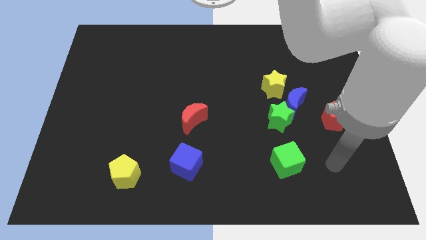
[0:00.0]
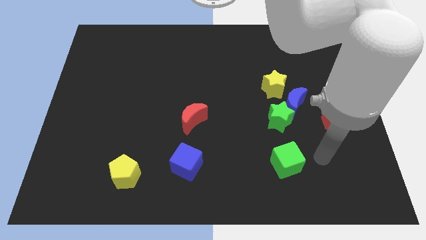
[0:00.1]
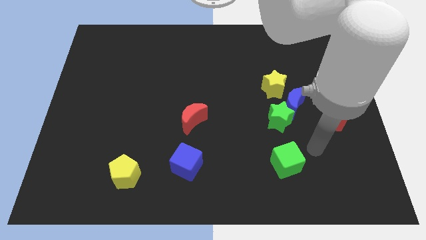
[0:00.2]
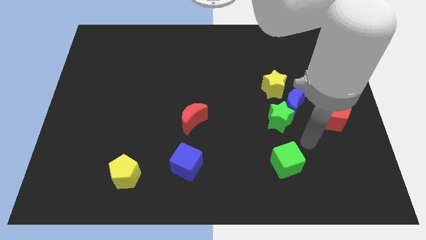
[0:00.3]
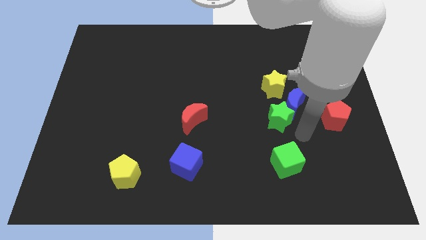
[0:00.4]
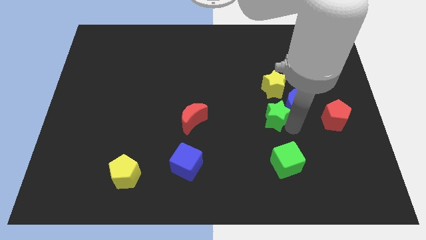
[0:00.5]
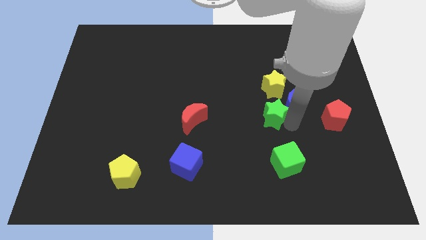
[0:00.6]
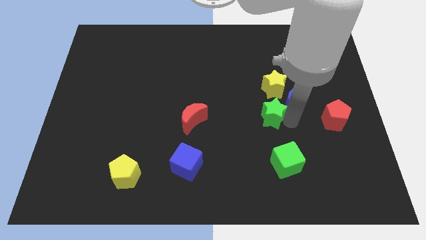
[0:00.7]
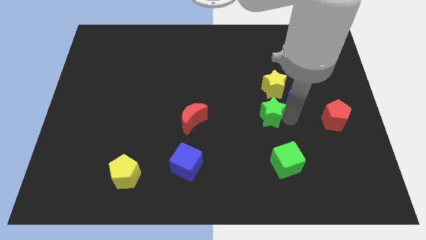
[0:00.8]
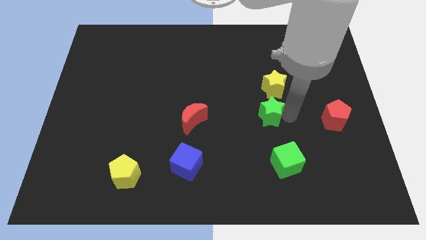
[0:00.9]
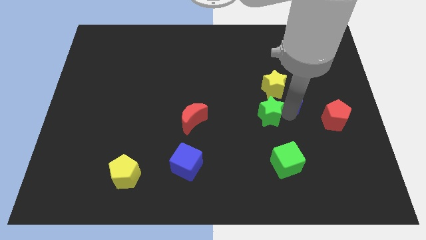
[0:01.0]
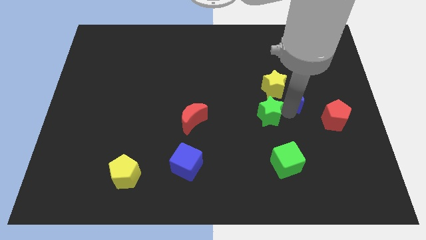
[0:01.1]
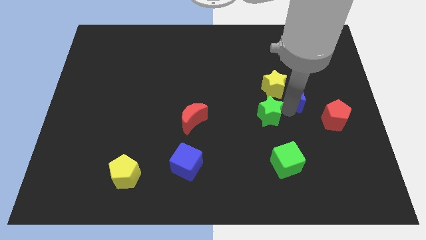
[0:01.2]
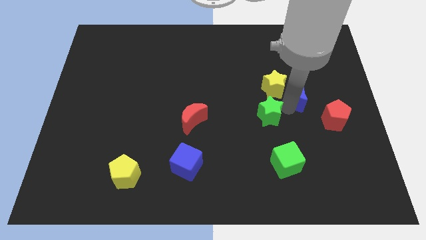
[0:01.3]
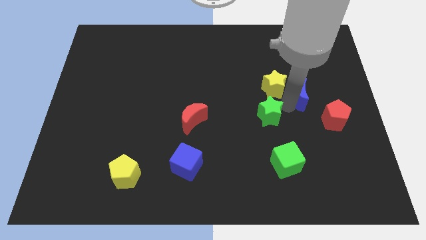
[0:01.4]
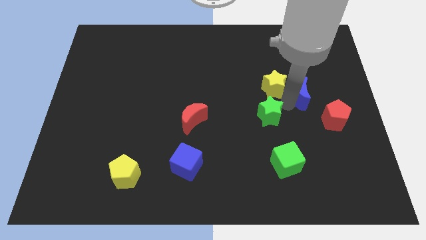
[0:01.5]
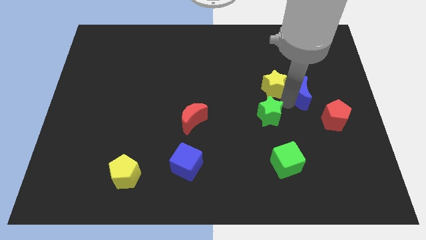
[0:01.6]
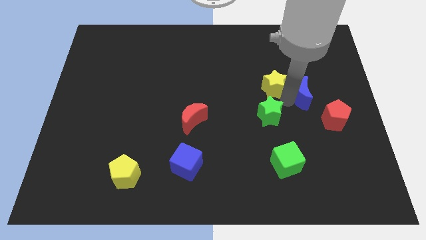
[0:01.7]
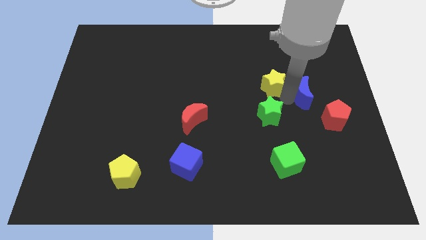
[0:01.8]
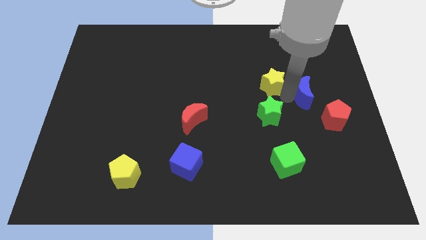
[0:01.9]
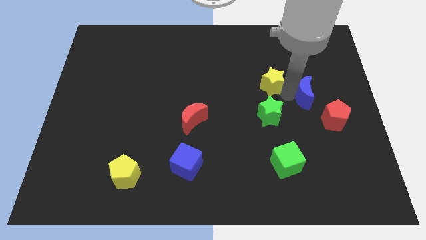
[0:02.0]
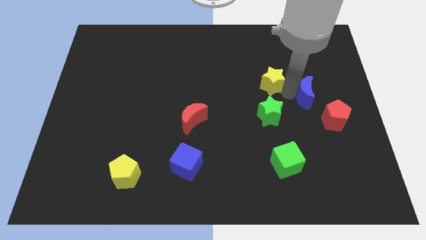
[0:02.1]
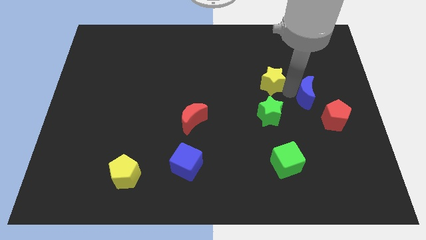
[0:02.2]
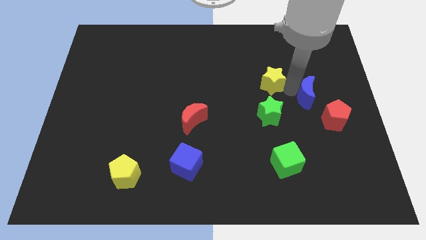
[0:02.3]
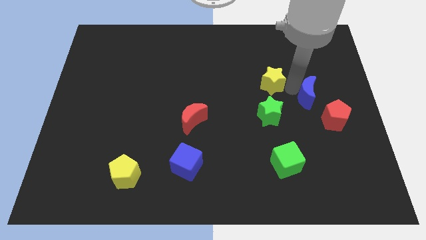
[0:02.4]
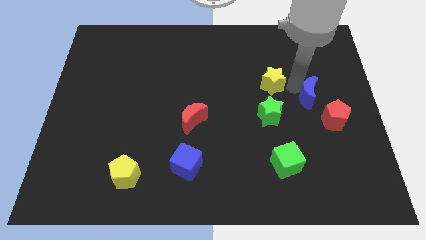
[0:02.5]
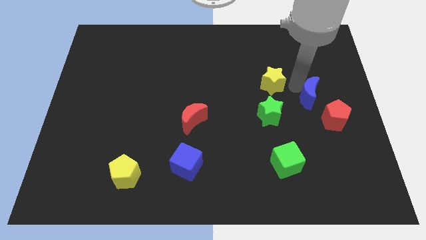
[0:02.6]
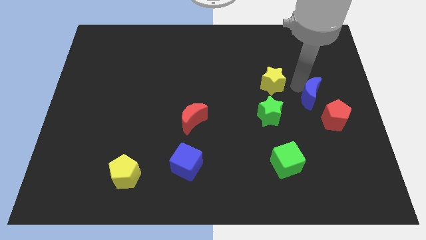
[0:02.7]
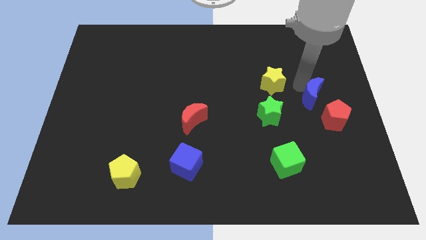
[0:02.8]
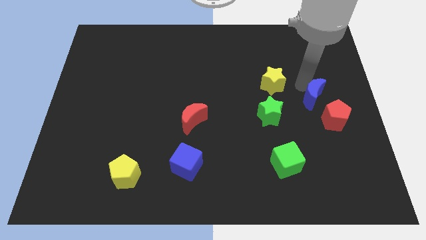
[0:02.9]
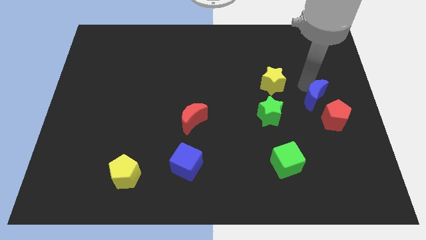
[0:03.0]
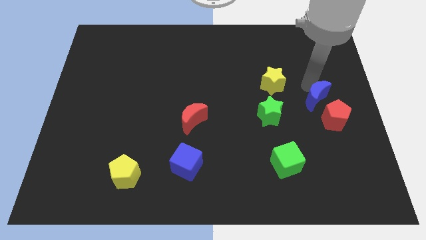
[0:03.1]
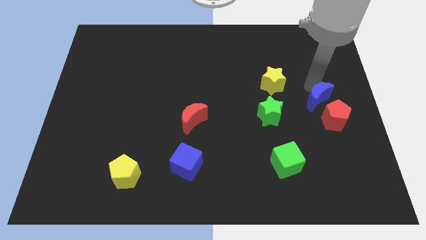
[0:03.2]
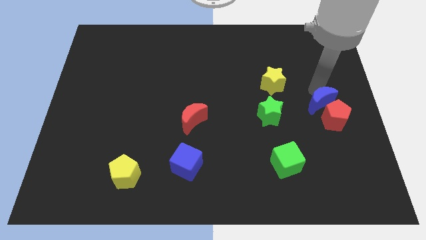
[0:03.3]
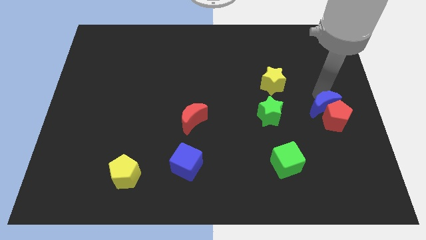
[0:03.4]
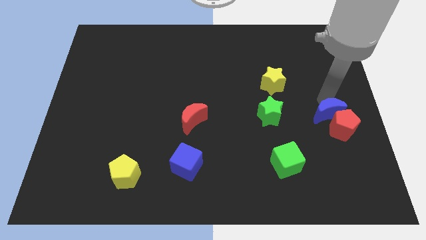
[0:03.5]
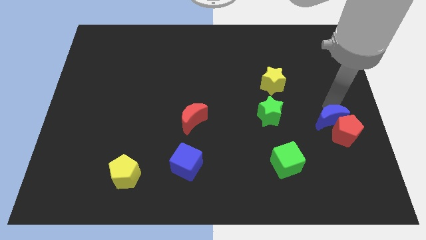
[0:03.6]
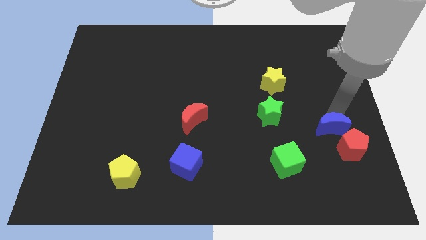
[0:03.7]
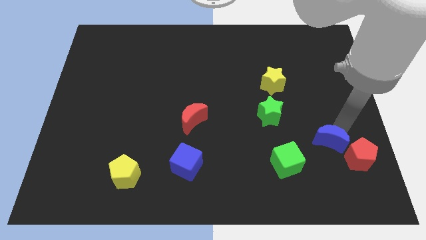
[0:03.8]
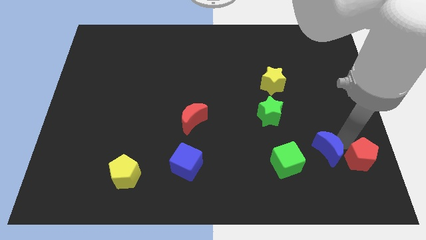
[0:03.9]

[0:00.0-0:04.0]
separate the blue moon from the group

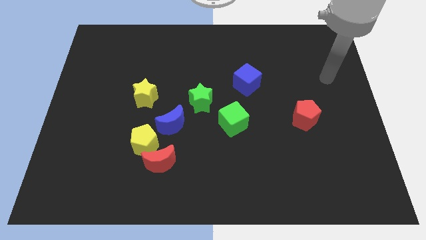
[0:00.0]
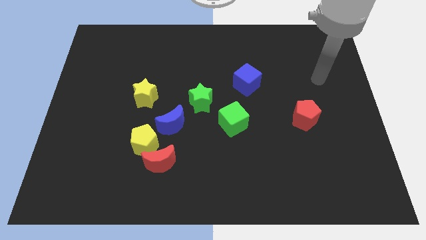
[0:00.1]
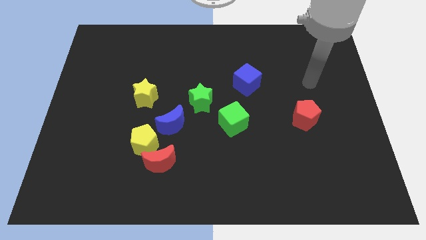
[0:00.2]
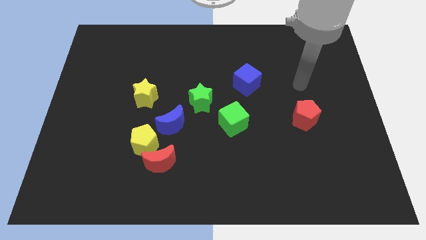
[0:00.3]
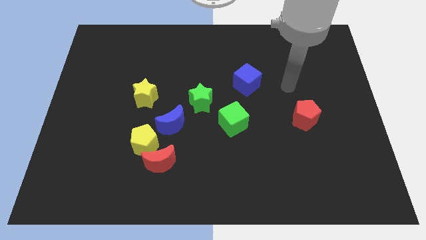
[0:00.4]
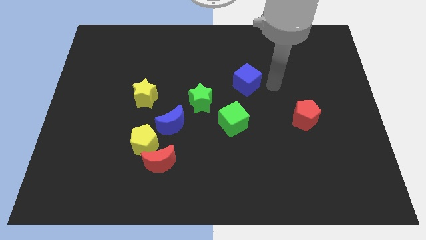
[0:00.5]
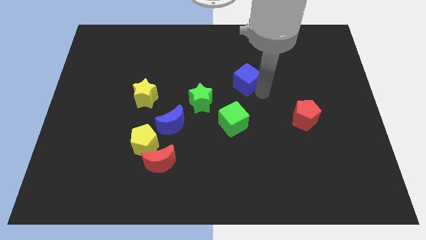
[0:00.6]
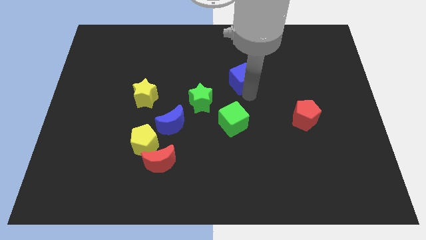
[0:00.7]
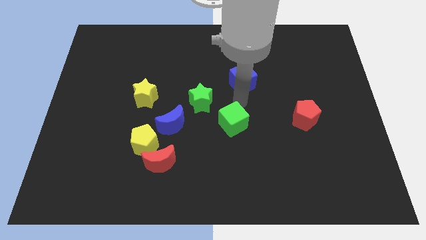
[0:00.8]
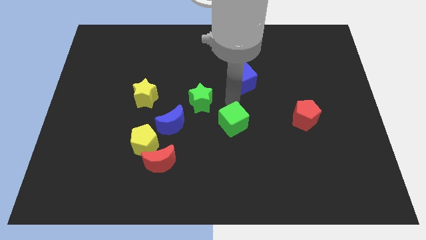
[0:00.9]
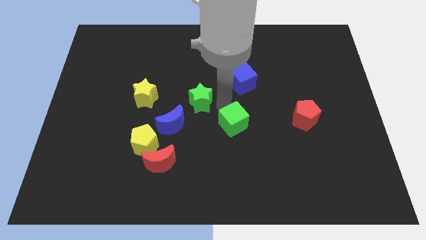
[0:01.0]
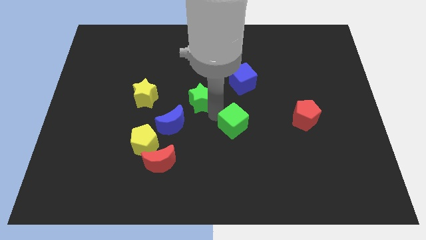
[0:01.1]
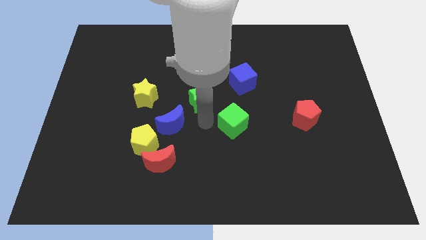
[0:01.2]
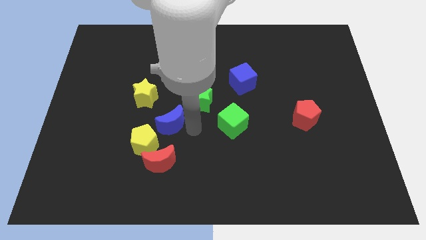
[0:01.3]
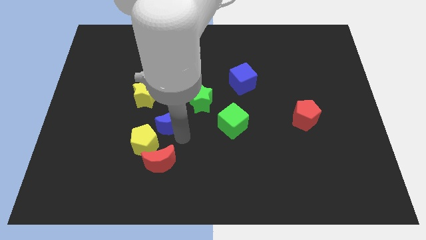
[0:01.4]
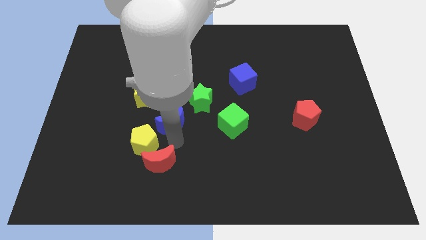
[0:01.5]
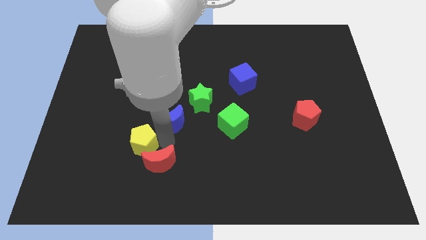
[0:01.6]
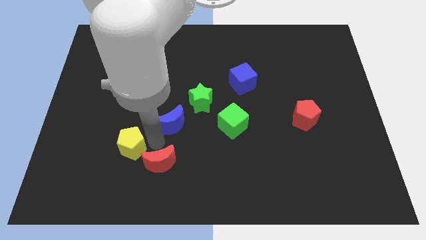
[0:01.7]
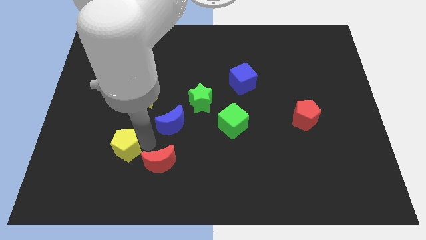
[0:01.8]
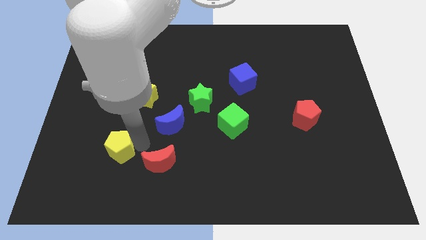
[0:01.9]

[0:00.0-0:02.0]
separate the yellow pentagon from the red moon and blue moon

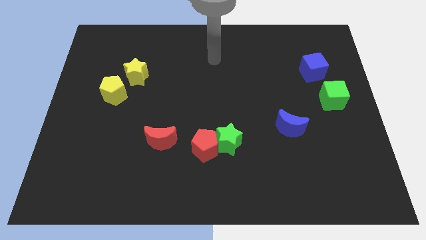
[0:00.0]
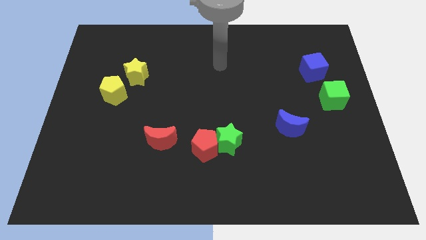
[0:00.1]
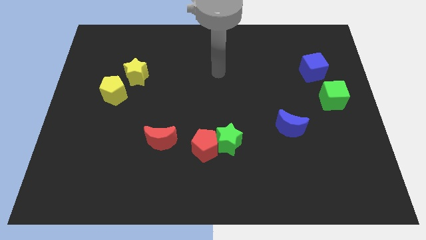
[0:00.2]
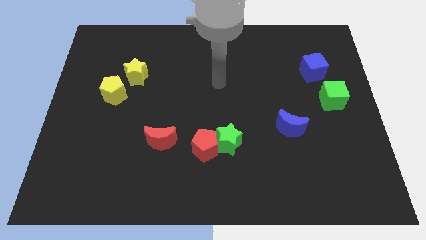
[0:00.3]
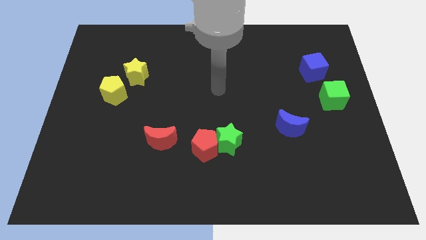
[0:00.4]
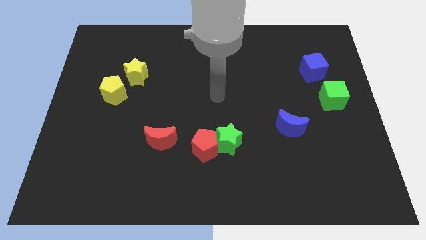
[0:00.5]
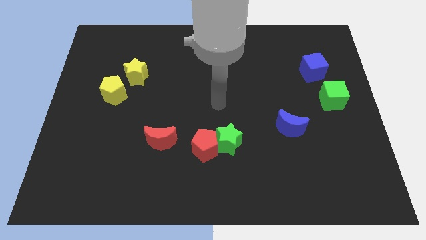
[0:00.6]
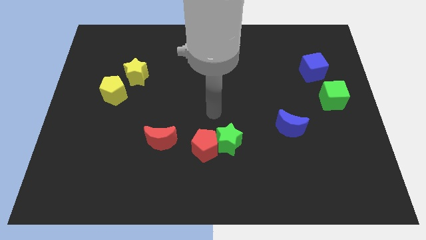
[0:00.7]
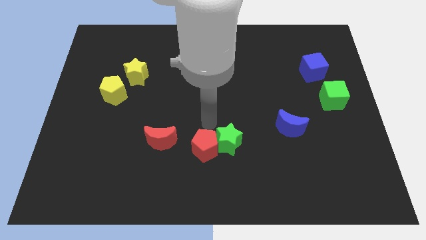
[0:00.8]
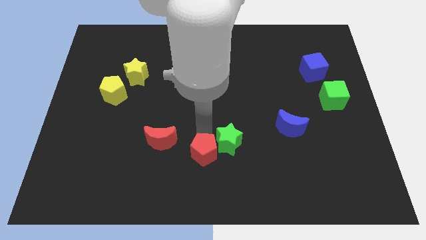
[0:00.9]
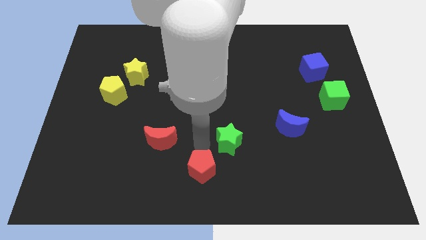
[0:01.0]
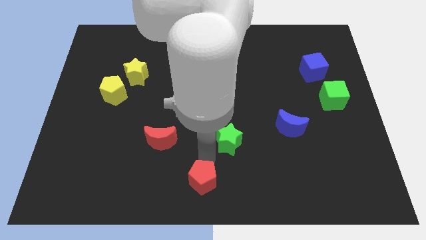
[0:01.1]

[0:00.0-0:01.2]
move the green star away from the red pentagon

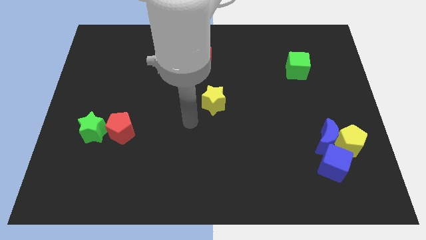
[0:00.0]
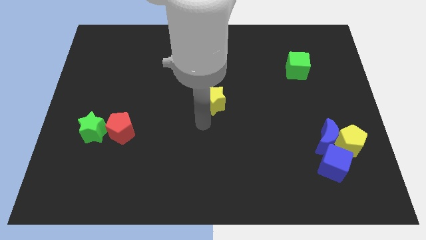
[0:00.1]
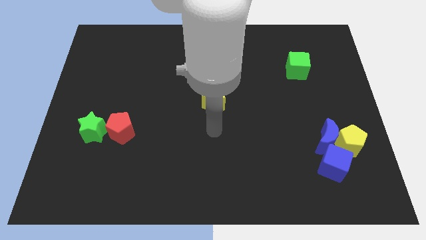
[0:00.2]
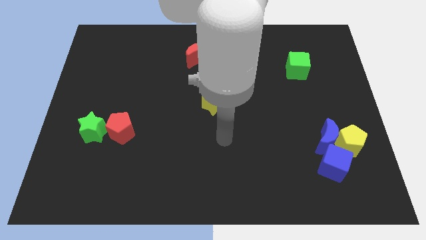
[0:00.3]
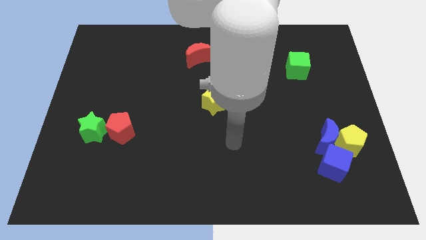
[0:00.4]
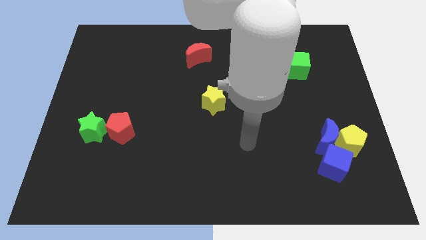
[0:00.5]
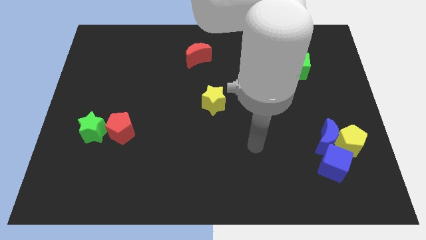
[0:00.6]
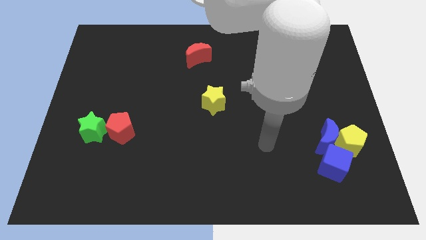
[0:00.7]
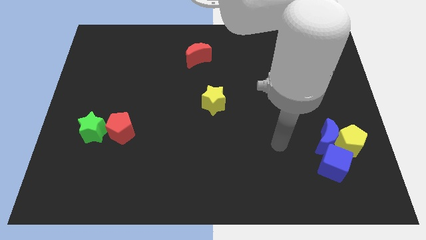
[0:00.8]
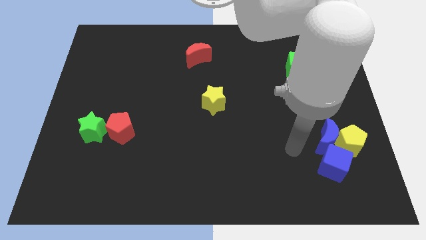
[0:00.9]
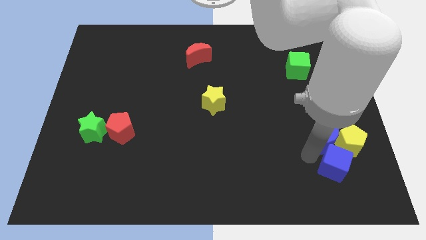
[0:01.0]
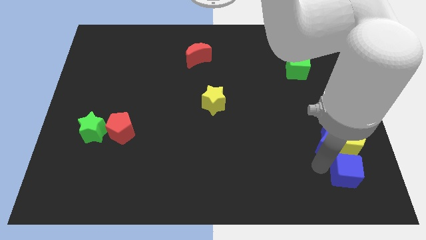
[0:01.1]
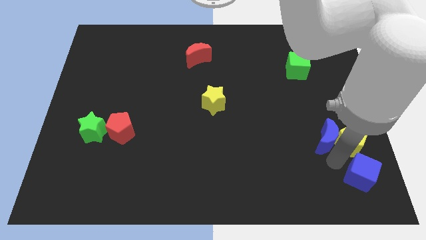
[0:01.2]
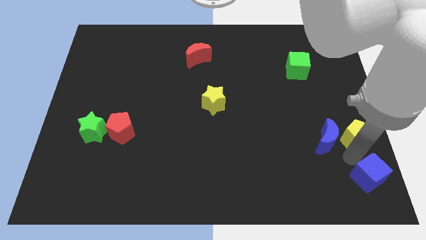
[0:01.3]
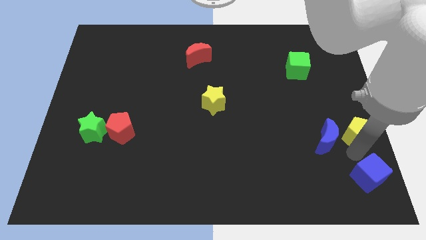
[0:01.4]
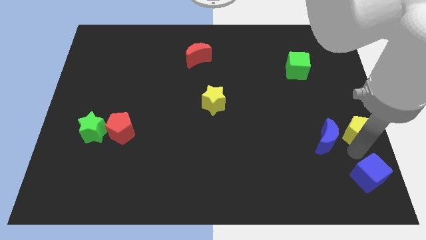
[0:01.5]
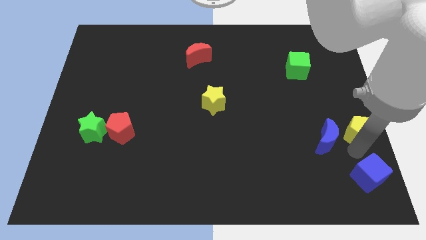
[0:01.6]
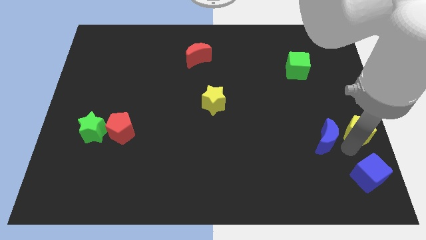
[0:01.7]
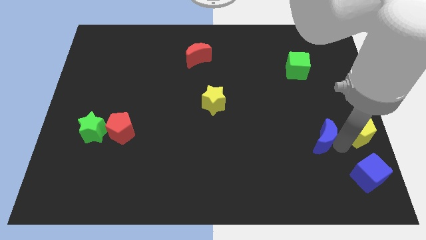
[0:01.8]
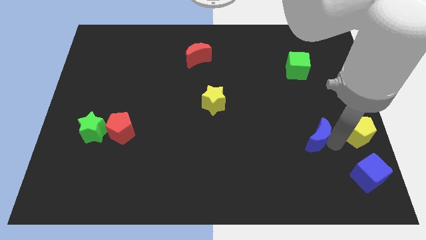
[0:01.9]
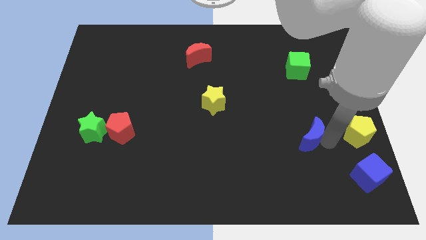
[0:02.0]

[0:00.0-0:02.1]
pull the blue moon apart from the yellow pentagon and blue cube

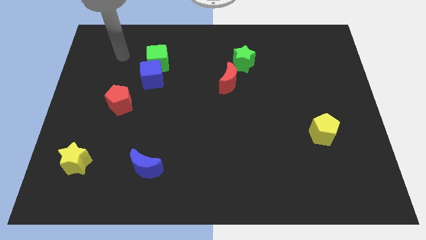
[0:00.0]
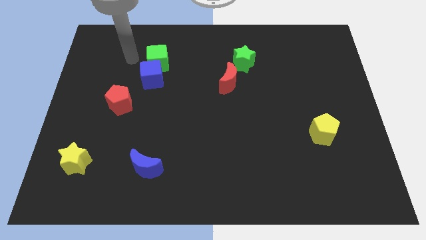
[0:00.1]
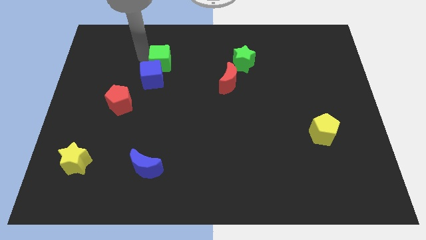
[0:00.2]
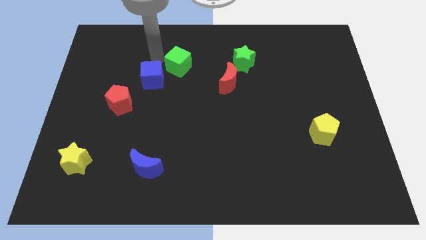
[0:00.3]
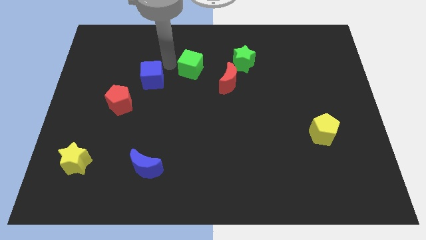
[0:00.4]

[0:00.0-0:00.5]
move the blue cube away from the green cube
